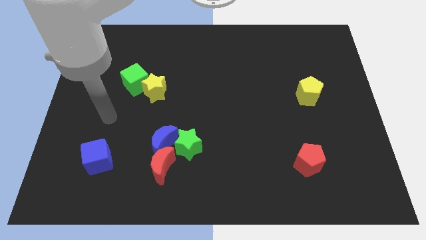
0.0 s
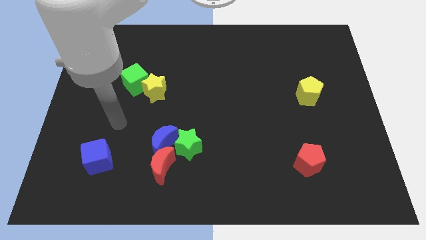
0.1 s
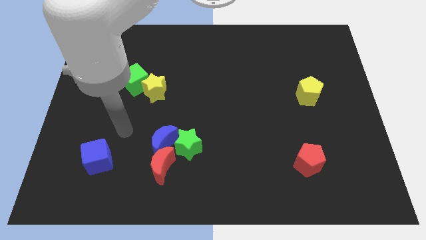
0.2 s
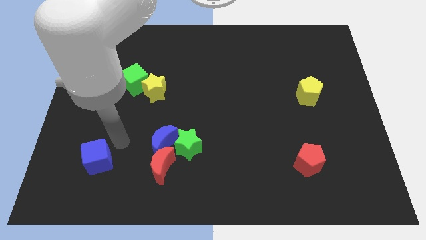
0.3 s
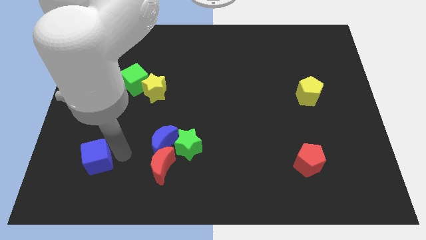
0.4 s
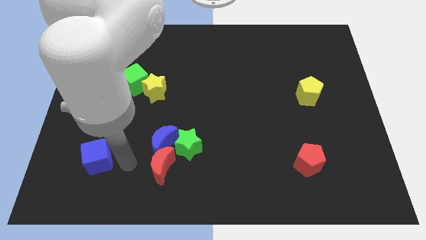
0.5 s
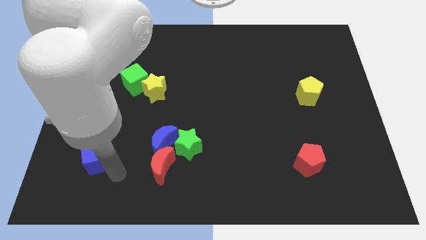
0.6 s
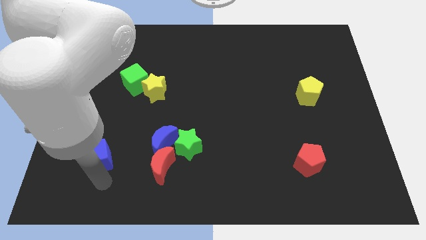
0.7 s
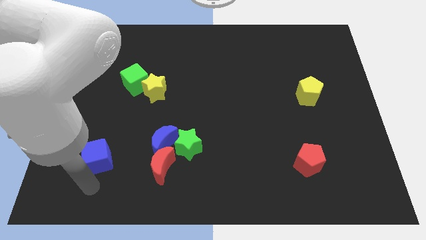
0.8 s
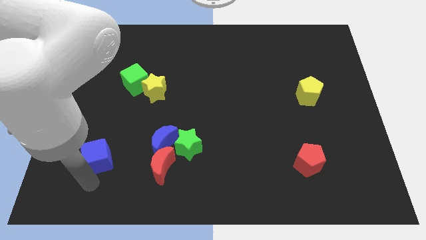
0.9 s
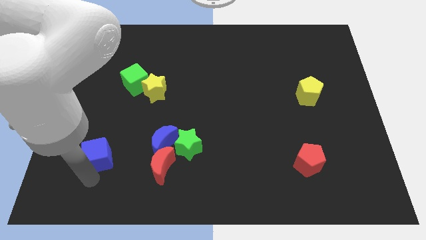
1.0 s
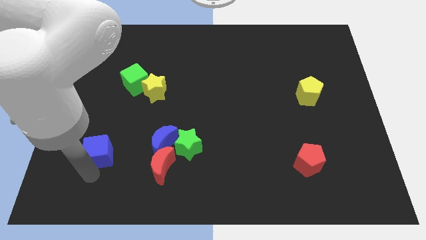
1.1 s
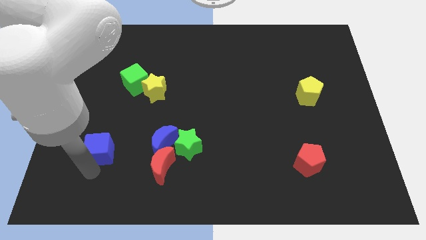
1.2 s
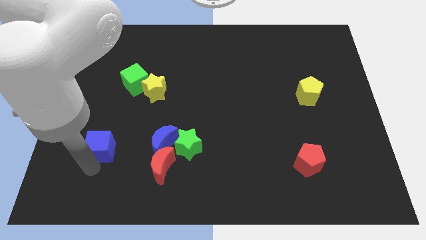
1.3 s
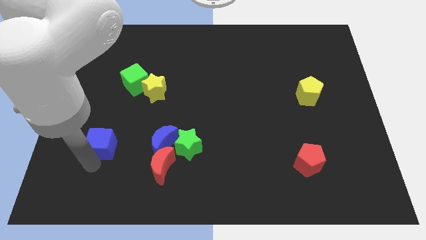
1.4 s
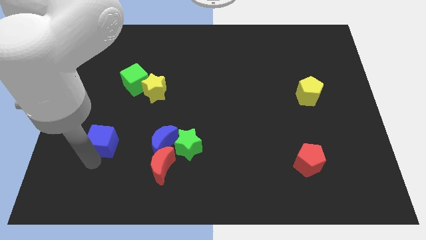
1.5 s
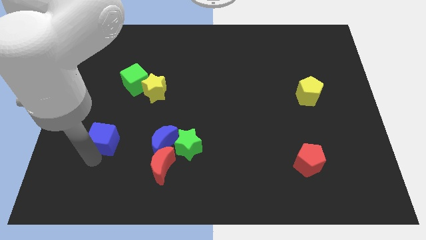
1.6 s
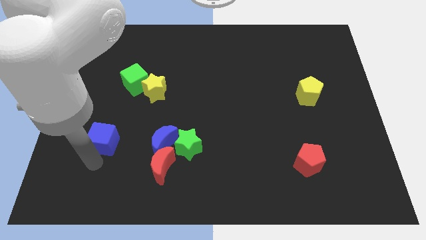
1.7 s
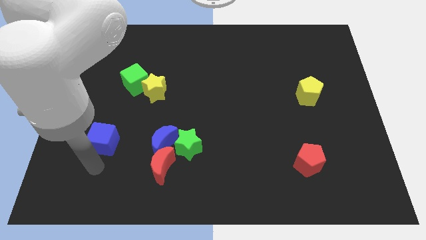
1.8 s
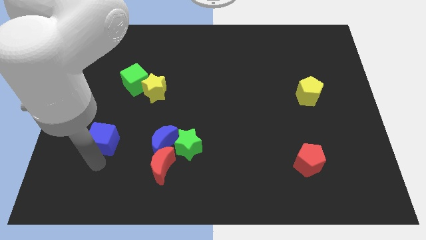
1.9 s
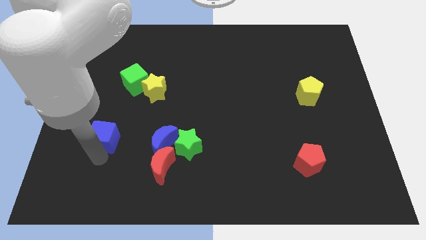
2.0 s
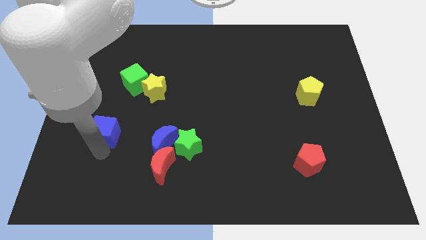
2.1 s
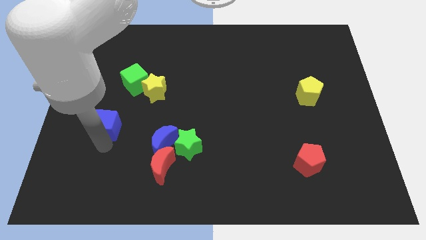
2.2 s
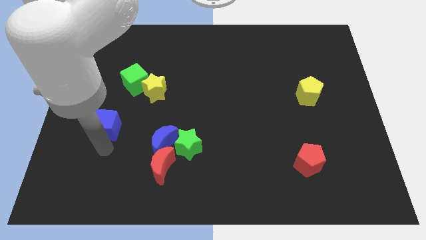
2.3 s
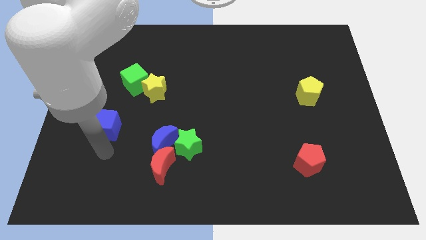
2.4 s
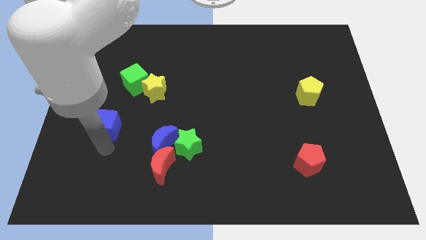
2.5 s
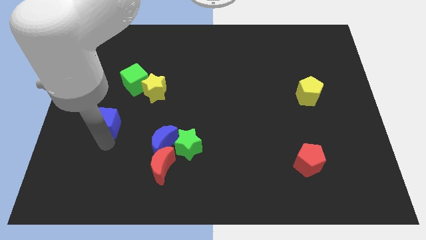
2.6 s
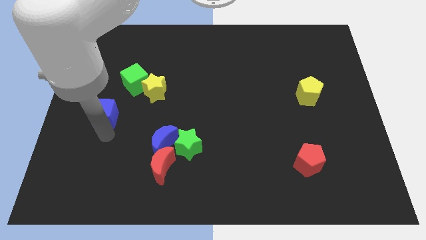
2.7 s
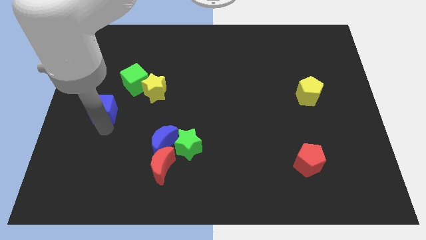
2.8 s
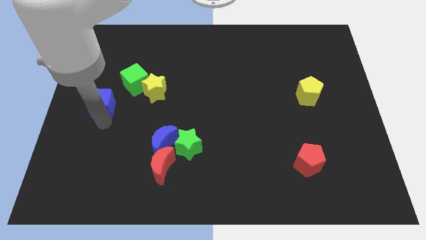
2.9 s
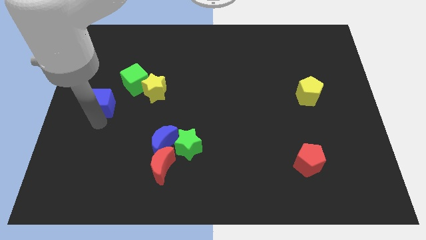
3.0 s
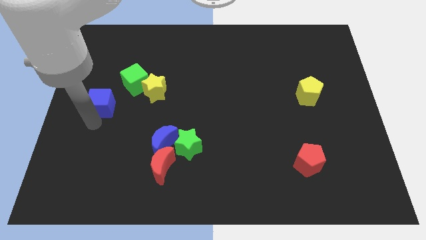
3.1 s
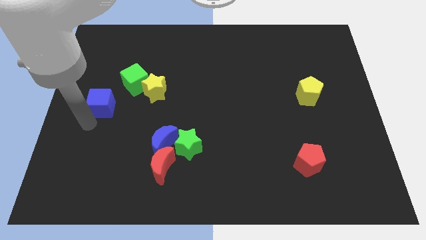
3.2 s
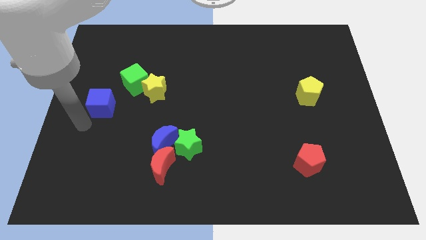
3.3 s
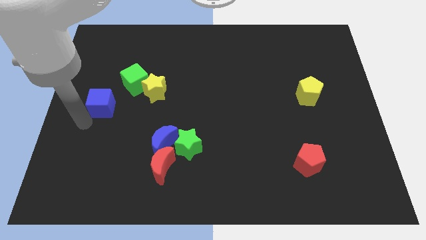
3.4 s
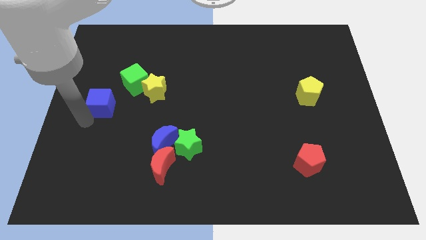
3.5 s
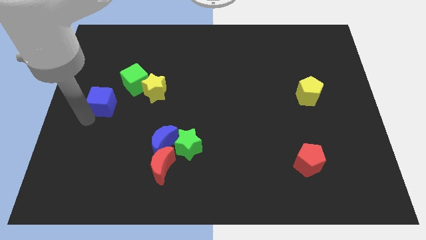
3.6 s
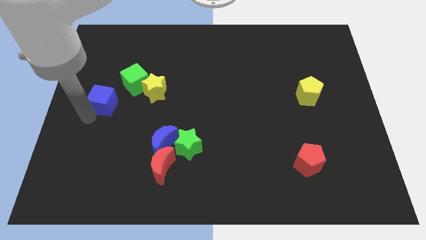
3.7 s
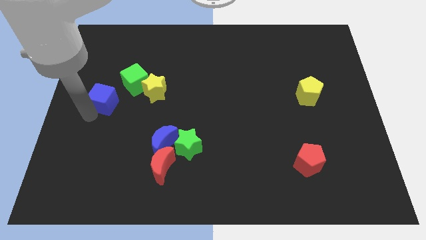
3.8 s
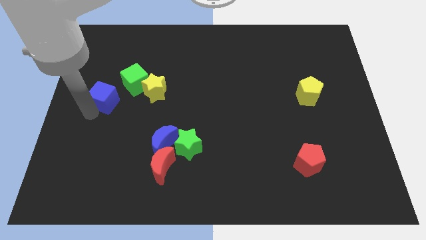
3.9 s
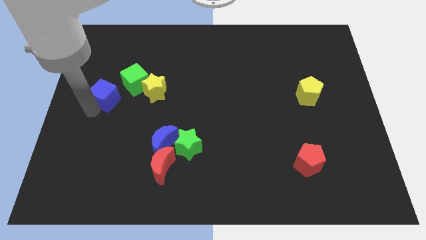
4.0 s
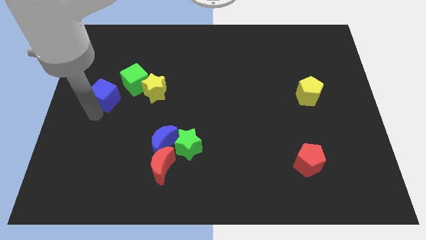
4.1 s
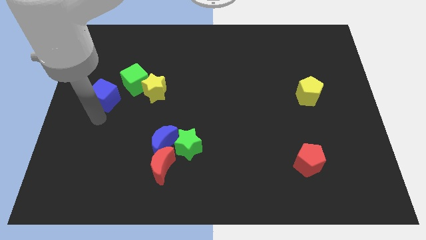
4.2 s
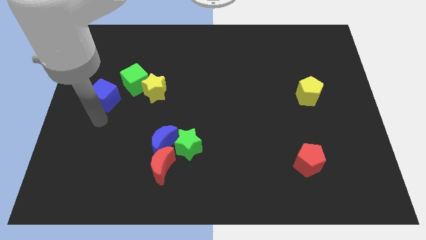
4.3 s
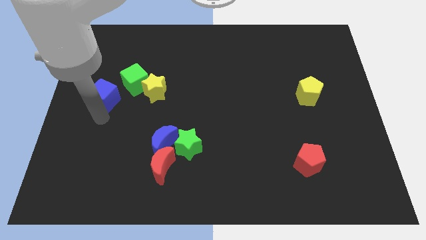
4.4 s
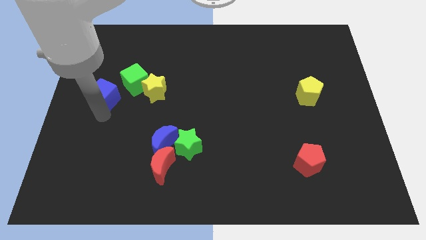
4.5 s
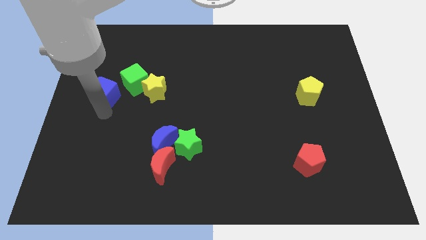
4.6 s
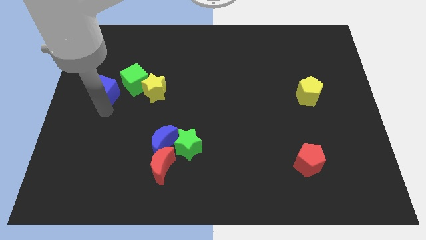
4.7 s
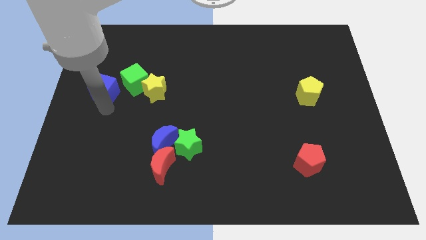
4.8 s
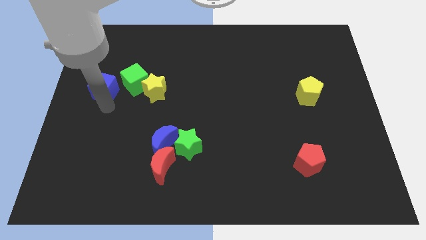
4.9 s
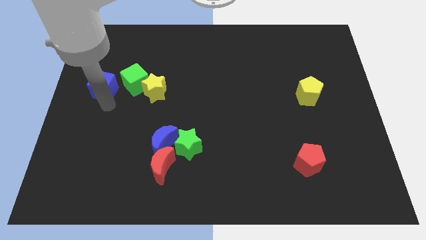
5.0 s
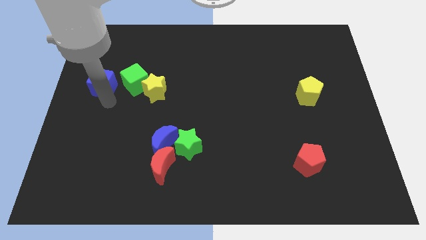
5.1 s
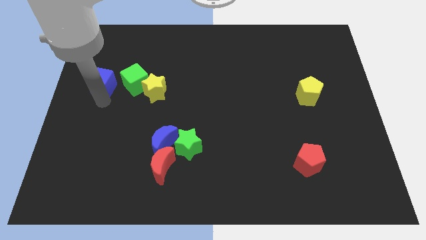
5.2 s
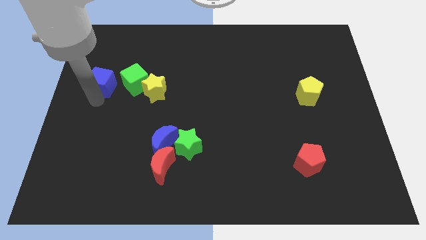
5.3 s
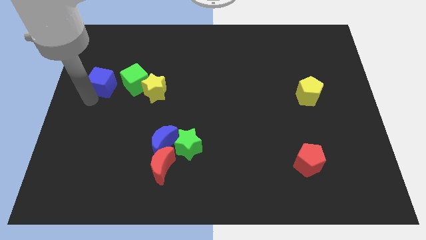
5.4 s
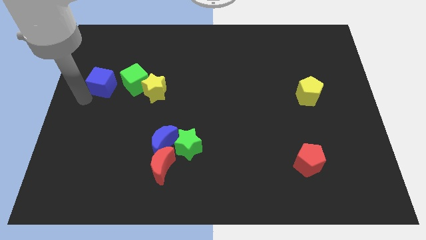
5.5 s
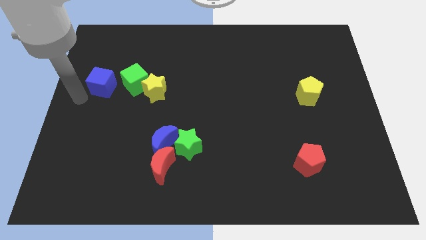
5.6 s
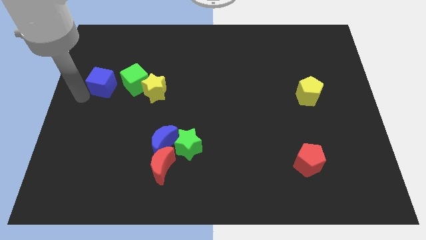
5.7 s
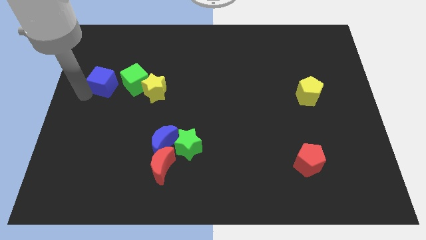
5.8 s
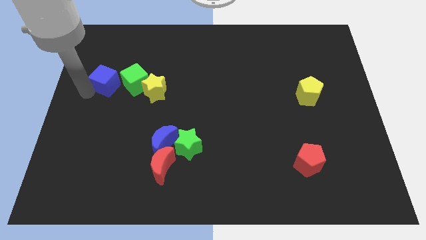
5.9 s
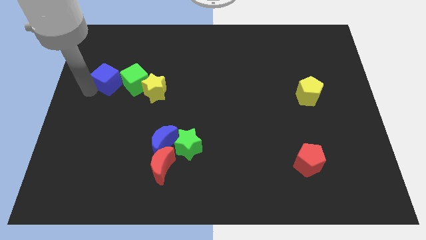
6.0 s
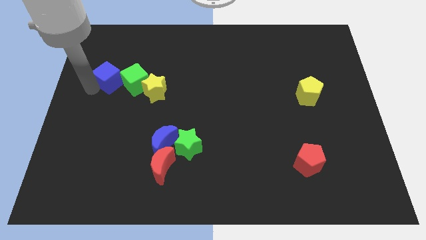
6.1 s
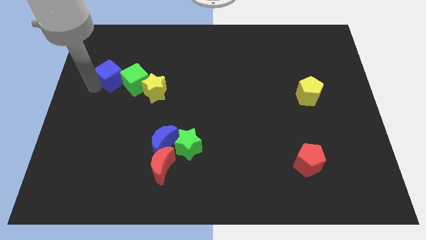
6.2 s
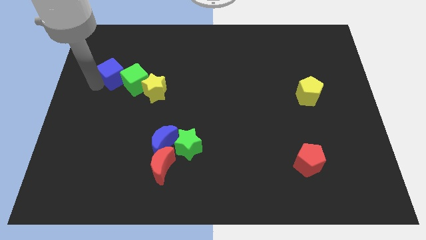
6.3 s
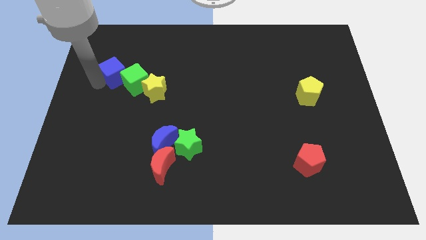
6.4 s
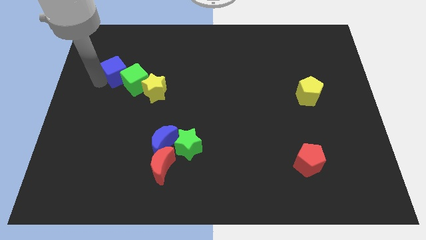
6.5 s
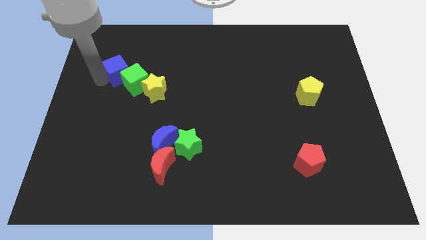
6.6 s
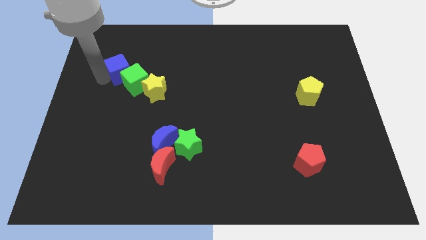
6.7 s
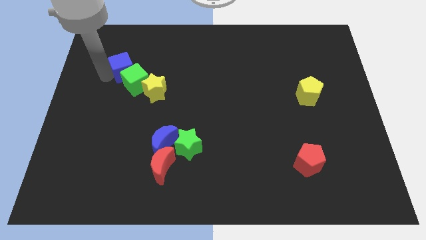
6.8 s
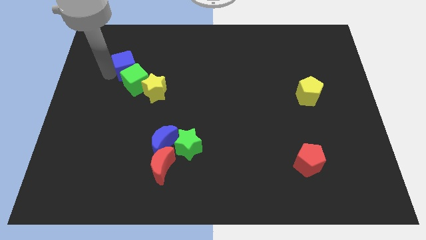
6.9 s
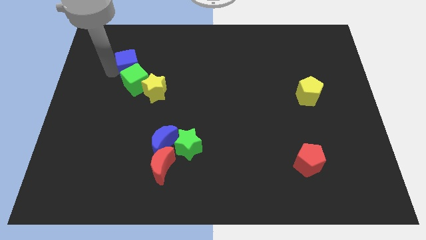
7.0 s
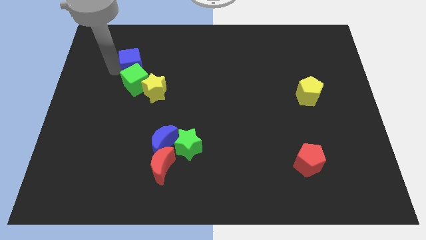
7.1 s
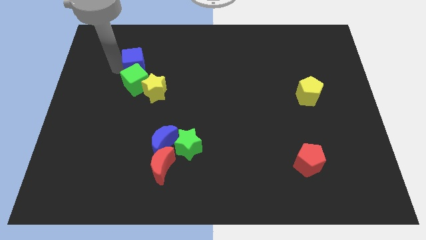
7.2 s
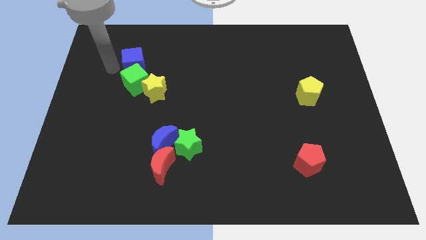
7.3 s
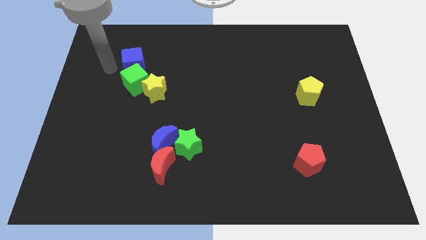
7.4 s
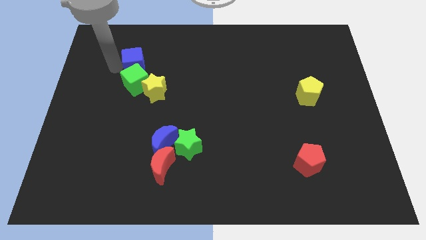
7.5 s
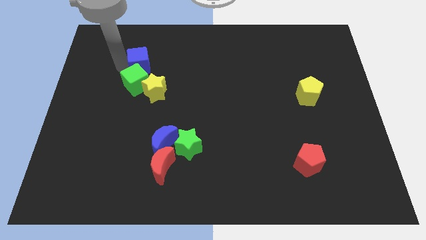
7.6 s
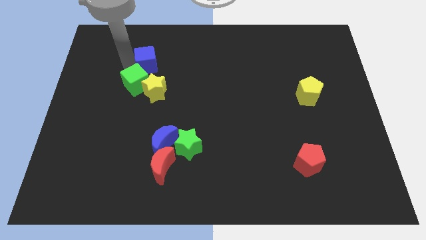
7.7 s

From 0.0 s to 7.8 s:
slide the blue cube above the yellow star
